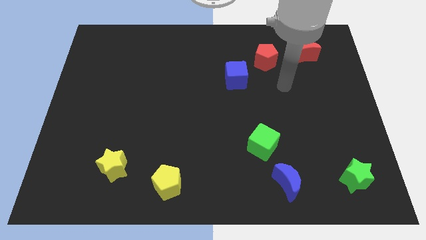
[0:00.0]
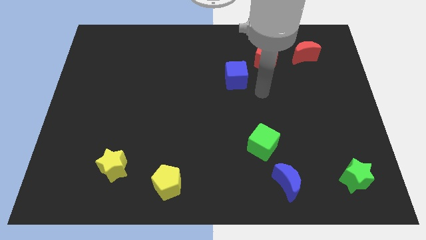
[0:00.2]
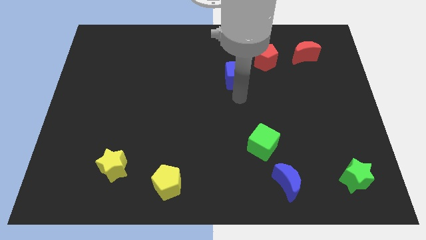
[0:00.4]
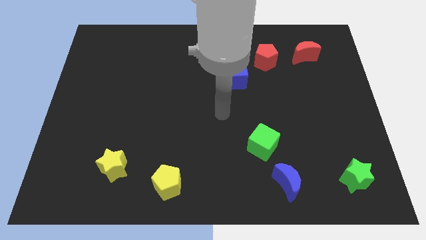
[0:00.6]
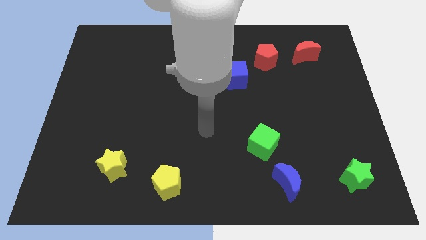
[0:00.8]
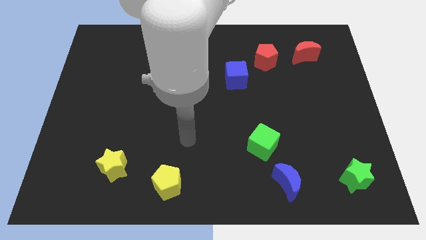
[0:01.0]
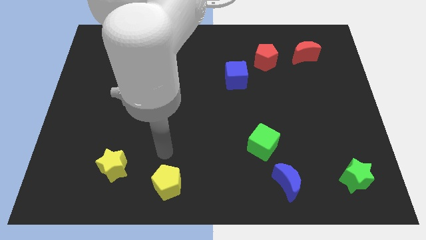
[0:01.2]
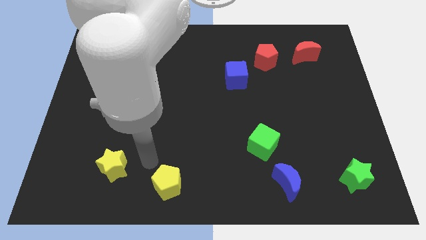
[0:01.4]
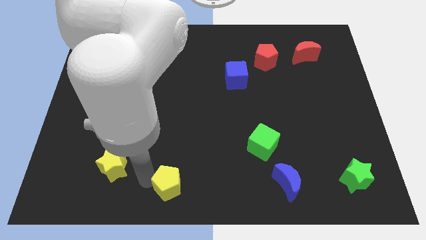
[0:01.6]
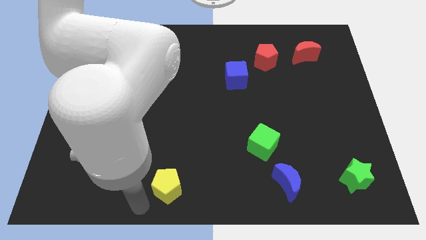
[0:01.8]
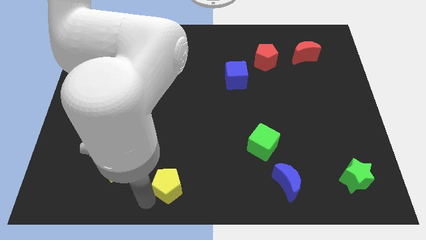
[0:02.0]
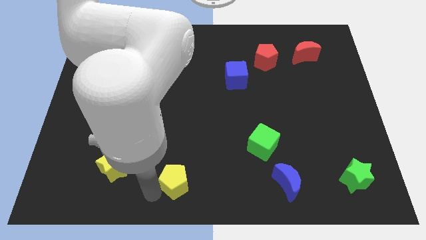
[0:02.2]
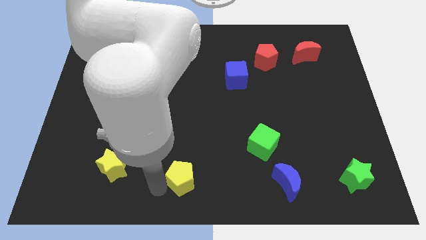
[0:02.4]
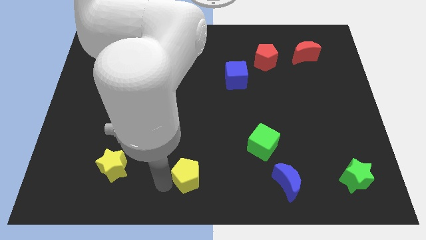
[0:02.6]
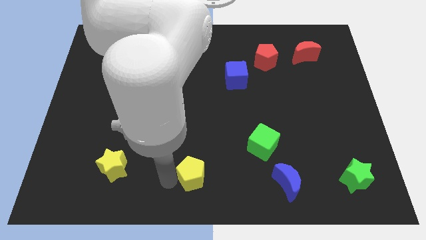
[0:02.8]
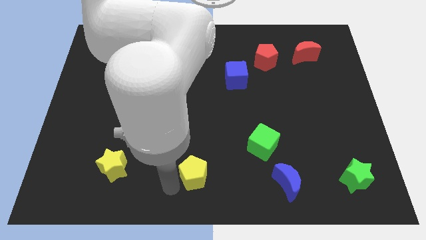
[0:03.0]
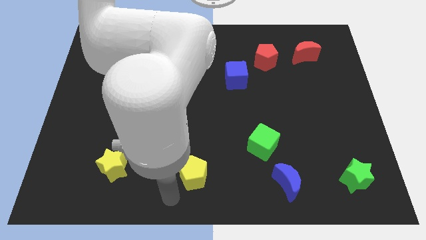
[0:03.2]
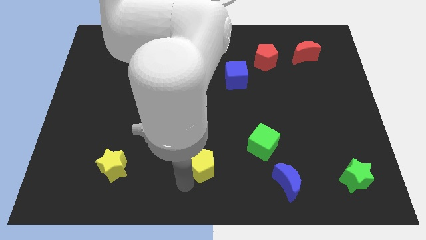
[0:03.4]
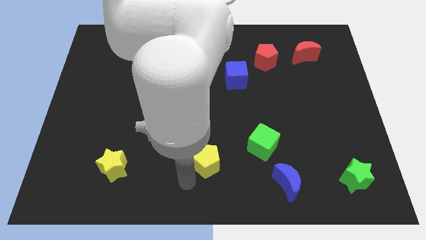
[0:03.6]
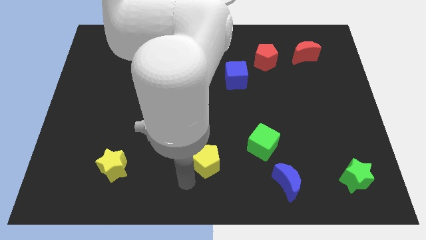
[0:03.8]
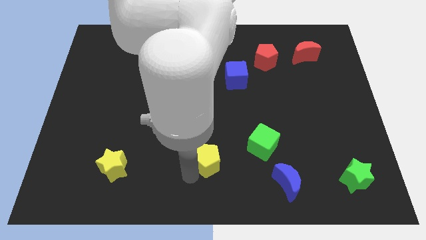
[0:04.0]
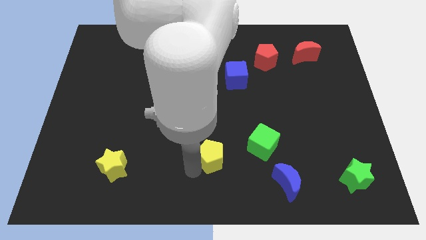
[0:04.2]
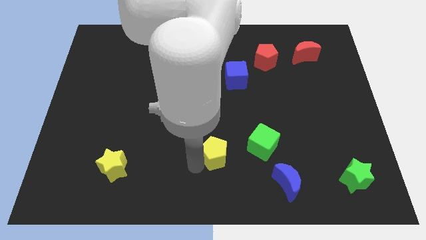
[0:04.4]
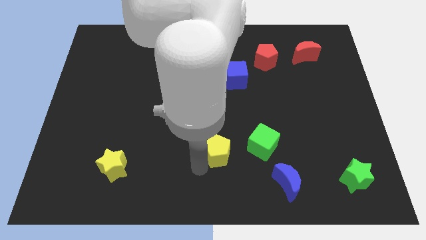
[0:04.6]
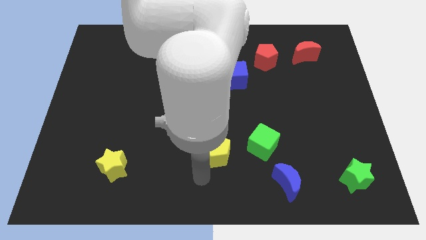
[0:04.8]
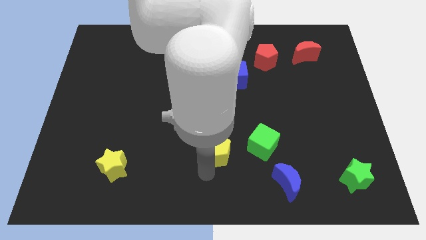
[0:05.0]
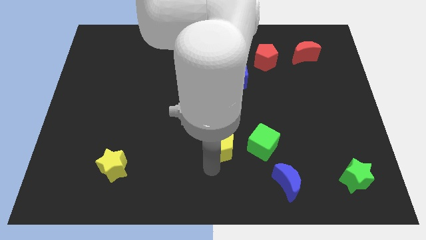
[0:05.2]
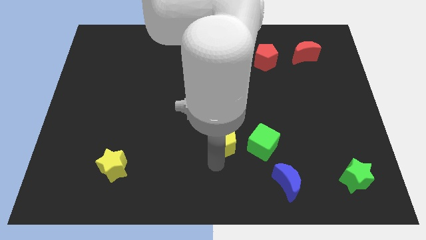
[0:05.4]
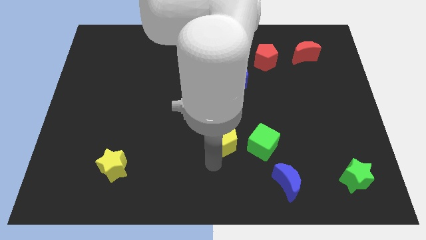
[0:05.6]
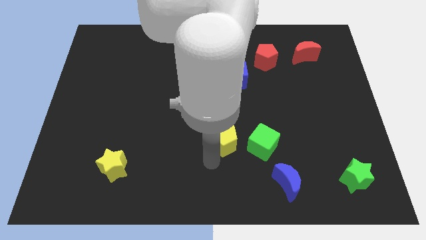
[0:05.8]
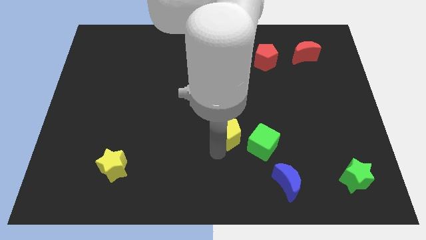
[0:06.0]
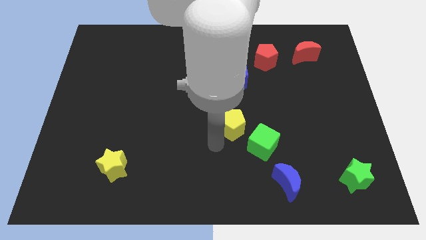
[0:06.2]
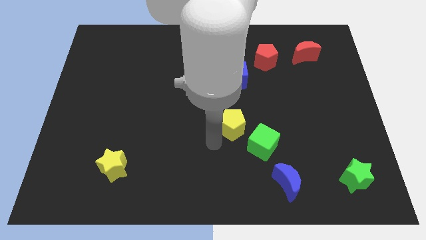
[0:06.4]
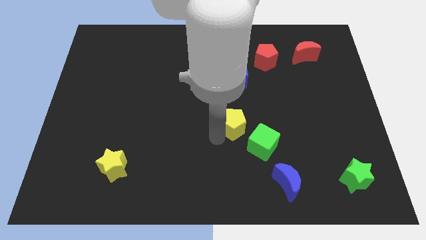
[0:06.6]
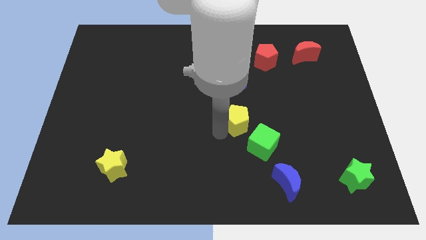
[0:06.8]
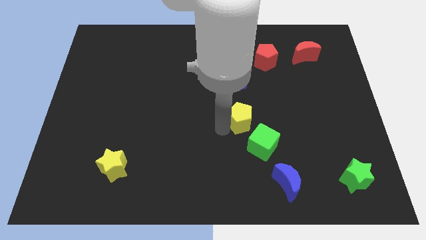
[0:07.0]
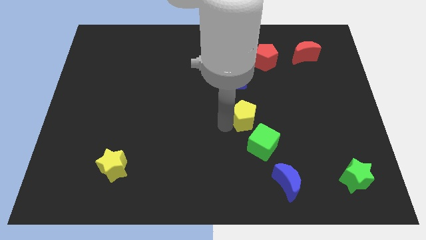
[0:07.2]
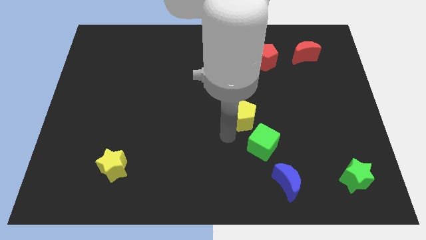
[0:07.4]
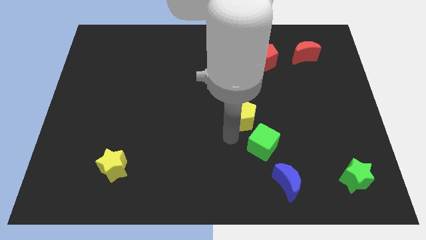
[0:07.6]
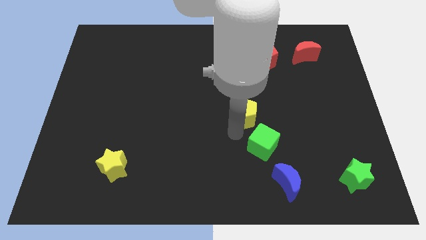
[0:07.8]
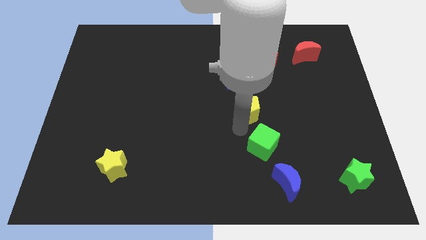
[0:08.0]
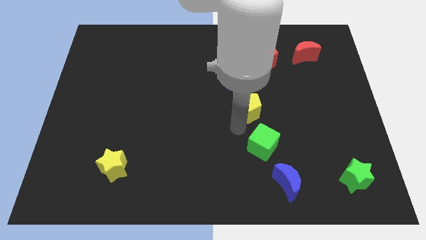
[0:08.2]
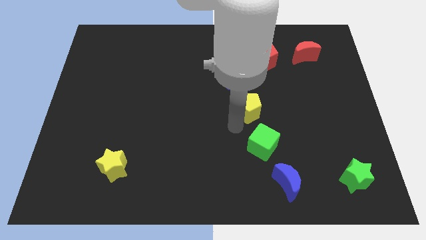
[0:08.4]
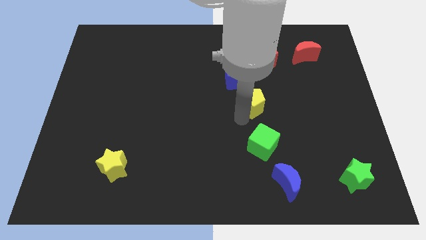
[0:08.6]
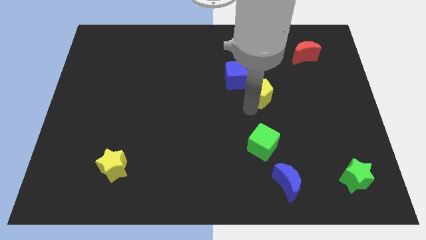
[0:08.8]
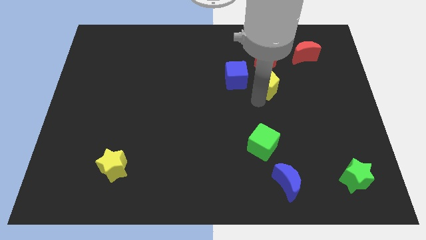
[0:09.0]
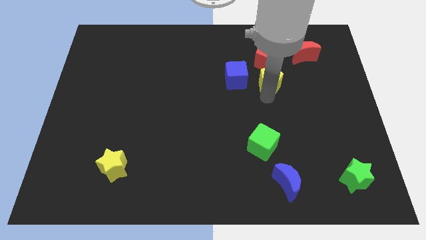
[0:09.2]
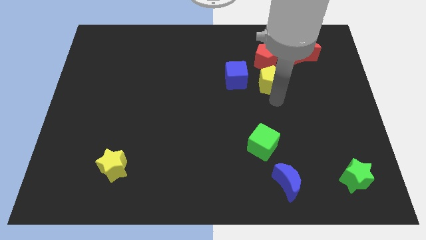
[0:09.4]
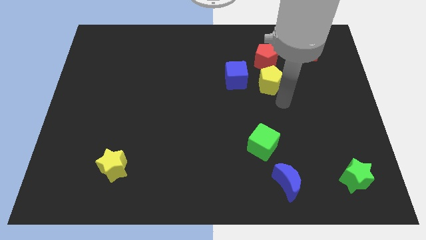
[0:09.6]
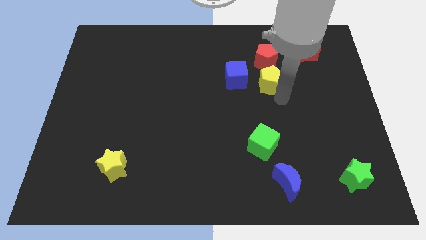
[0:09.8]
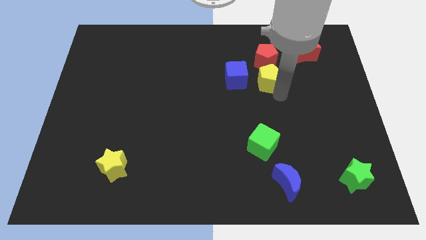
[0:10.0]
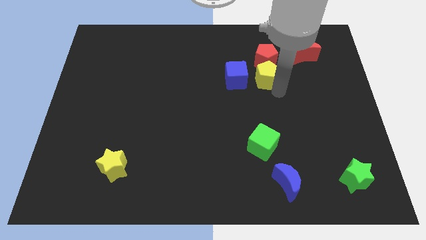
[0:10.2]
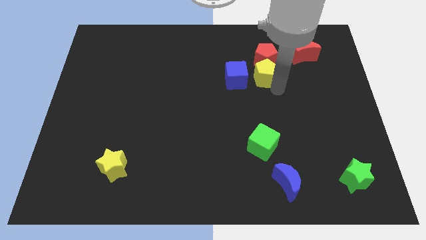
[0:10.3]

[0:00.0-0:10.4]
push the yellow pentagon next to the red pentagon

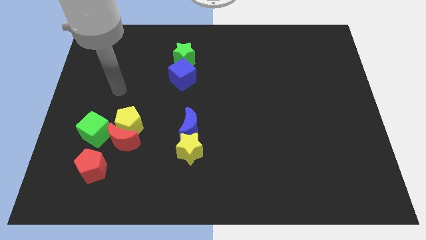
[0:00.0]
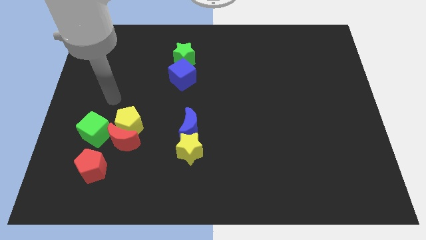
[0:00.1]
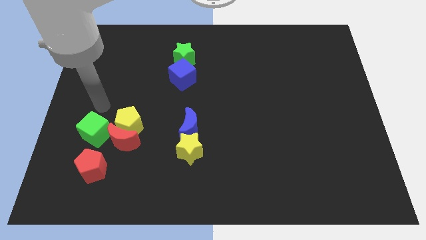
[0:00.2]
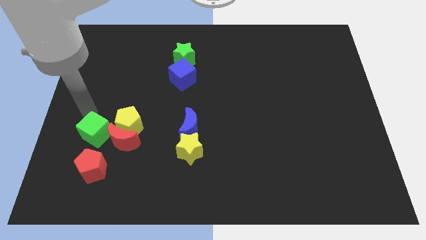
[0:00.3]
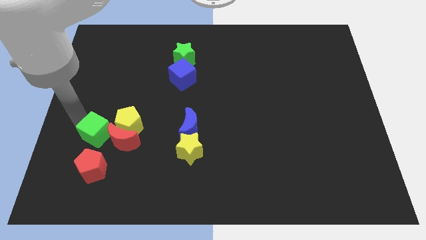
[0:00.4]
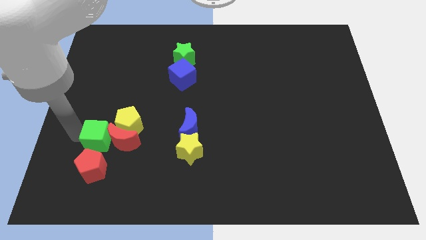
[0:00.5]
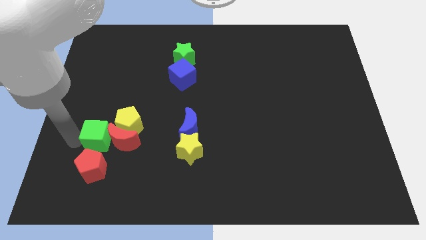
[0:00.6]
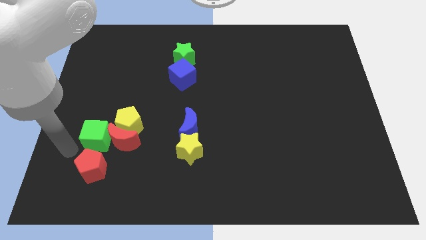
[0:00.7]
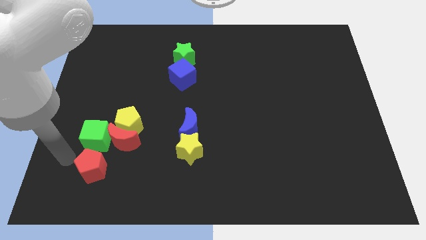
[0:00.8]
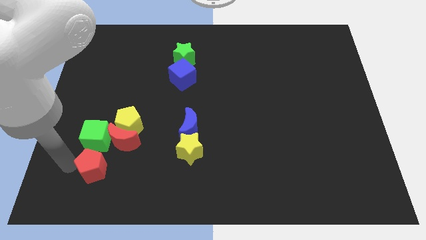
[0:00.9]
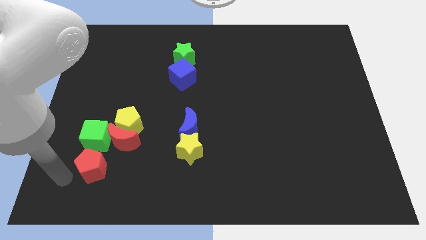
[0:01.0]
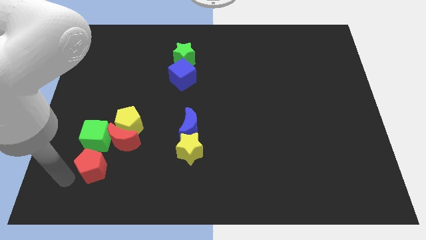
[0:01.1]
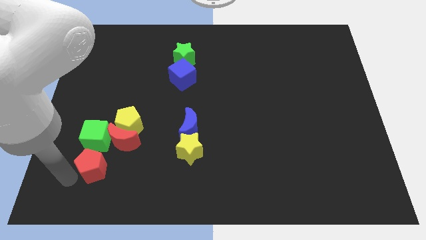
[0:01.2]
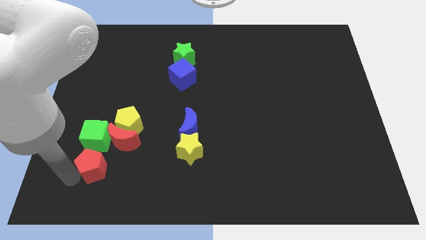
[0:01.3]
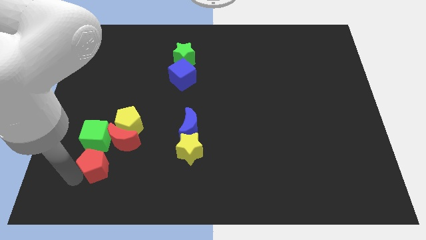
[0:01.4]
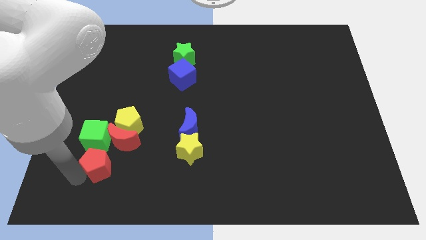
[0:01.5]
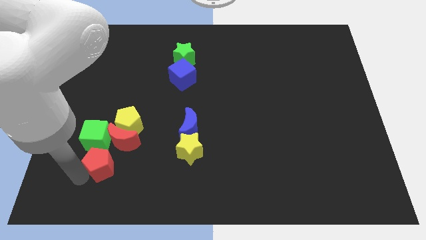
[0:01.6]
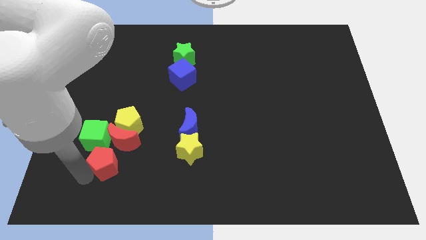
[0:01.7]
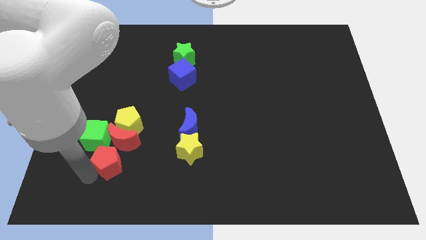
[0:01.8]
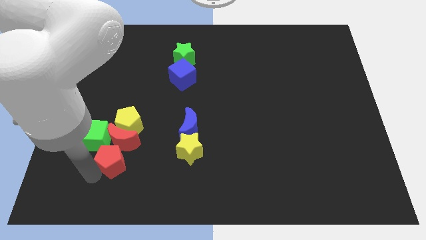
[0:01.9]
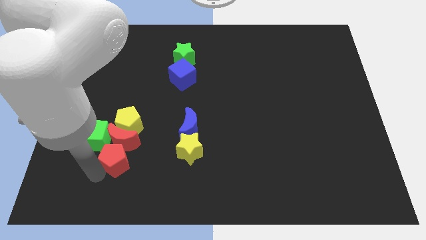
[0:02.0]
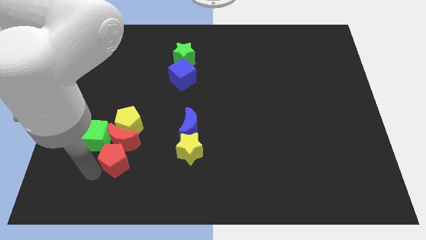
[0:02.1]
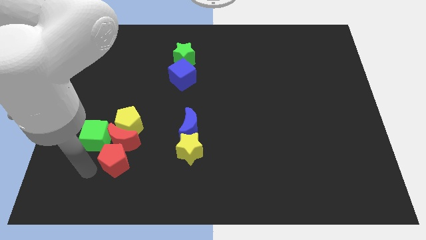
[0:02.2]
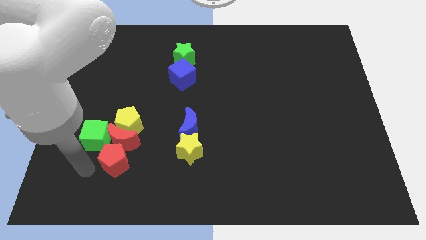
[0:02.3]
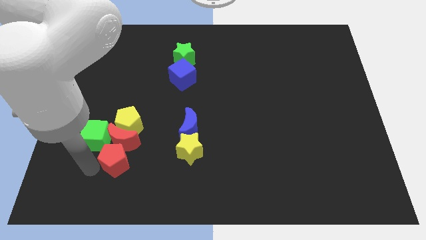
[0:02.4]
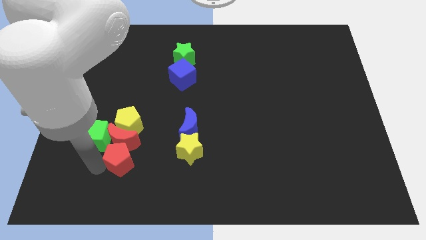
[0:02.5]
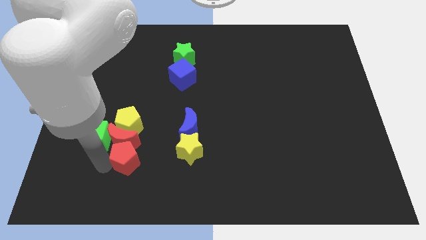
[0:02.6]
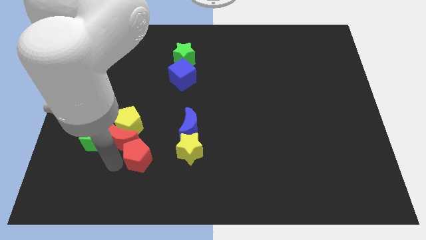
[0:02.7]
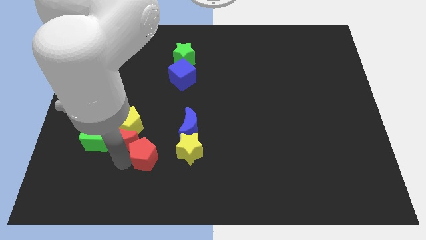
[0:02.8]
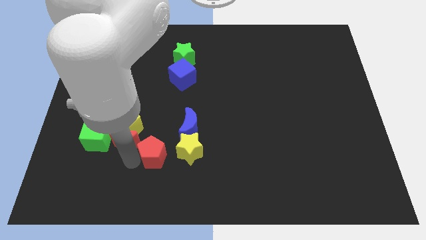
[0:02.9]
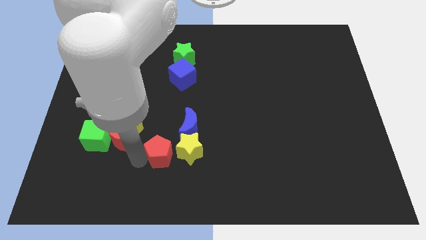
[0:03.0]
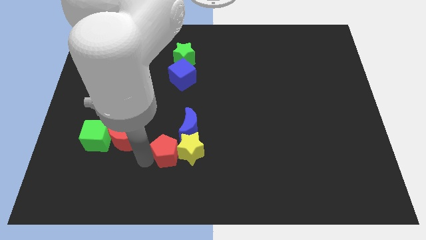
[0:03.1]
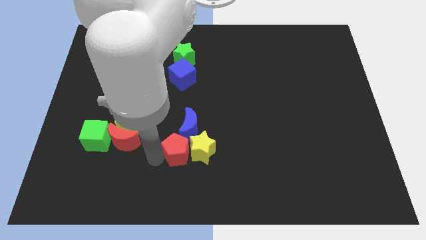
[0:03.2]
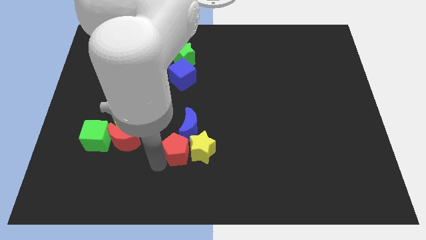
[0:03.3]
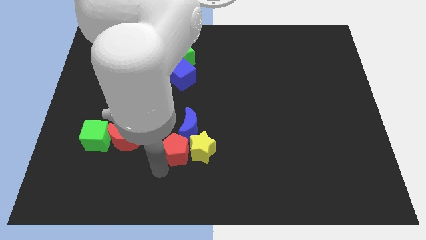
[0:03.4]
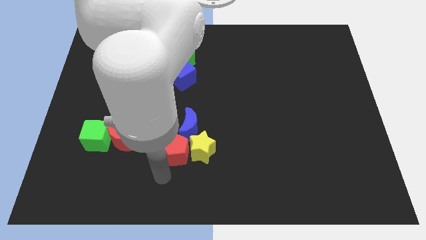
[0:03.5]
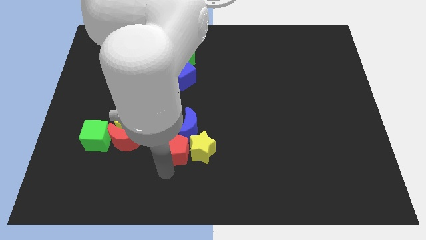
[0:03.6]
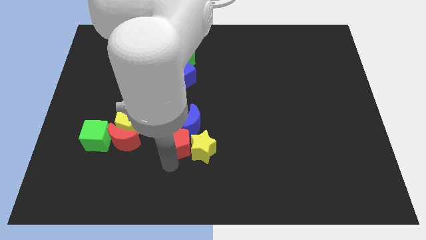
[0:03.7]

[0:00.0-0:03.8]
push the red pentagon to the blue moon
